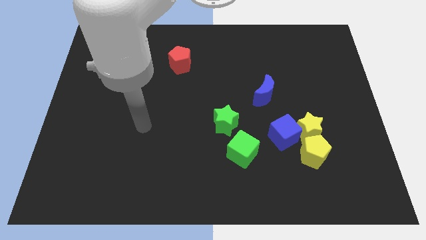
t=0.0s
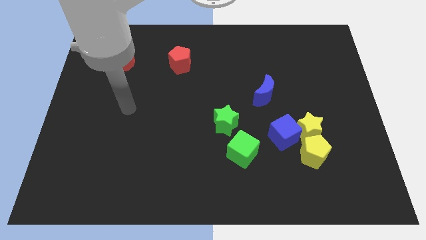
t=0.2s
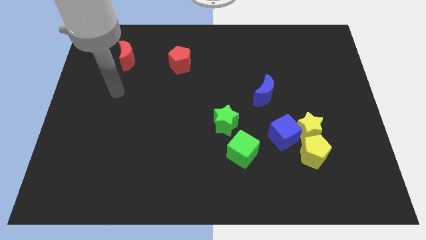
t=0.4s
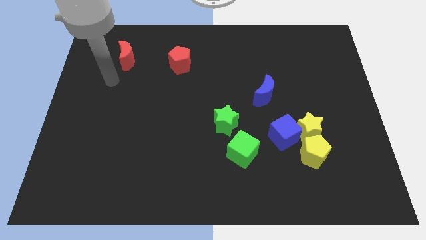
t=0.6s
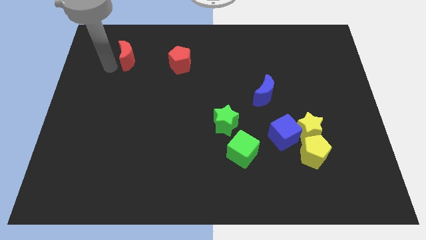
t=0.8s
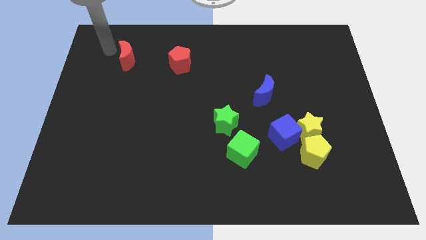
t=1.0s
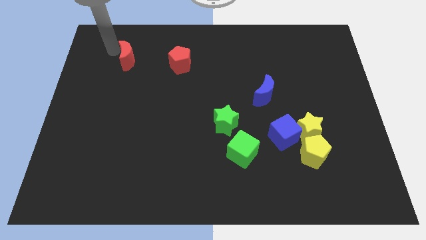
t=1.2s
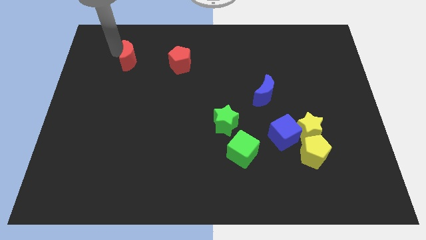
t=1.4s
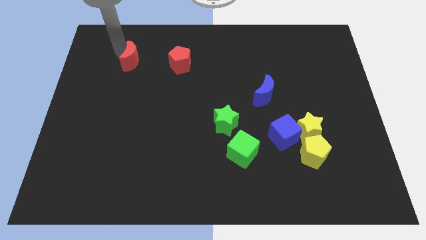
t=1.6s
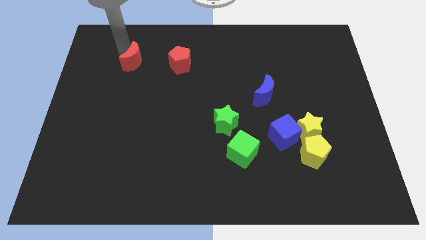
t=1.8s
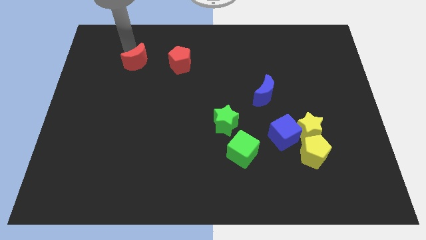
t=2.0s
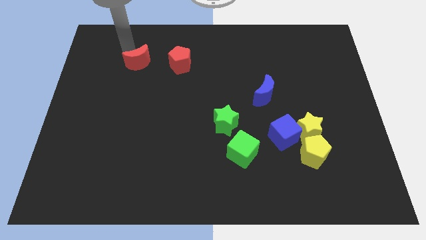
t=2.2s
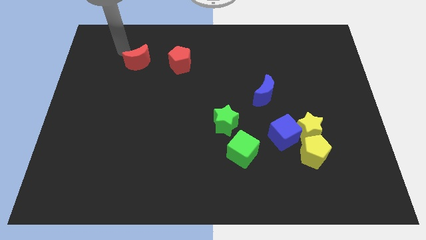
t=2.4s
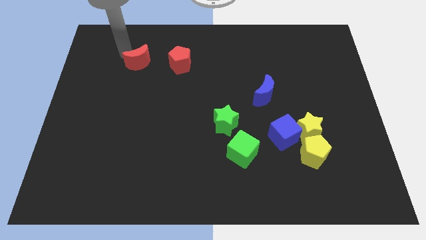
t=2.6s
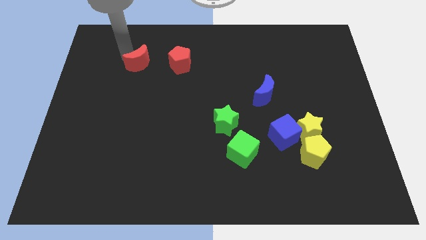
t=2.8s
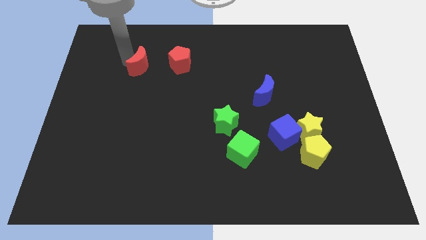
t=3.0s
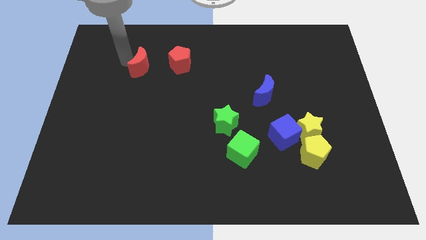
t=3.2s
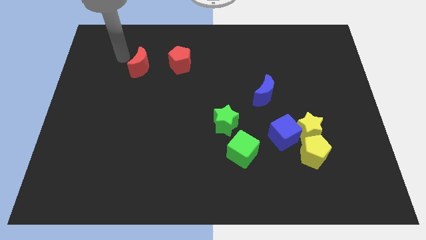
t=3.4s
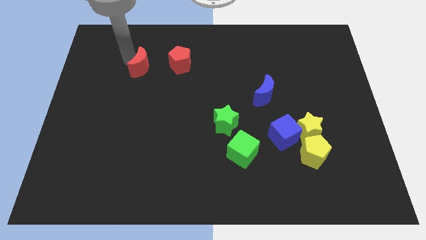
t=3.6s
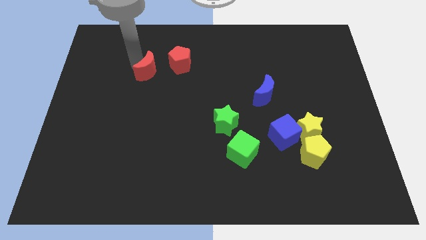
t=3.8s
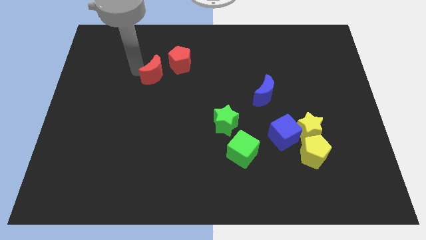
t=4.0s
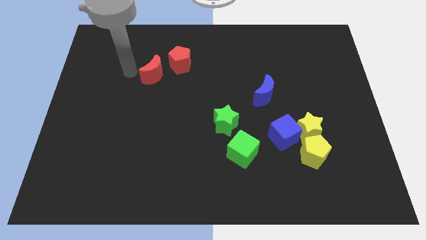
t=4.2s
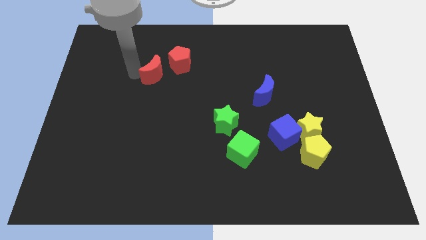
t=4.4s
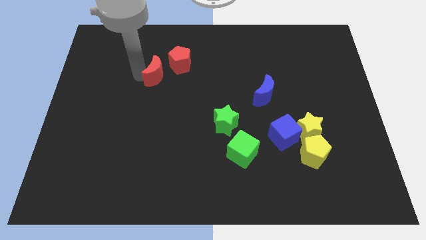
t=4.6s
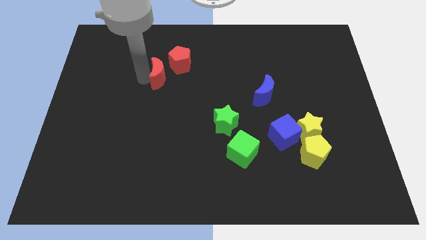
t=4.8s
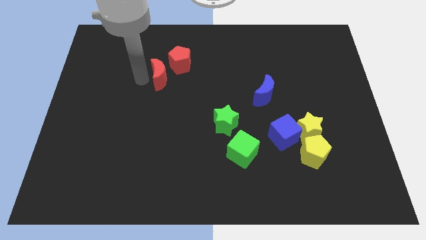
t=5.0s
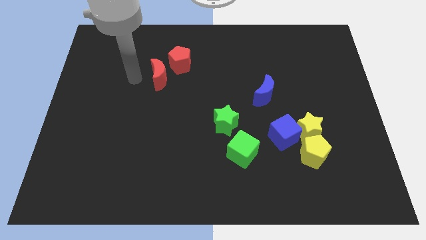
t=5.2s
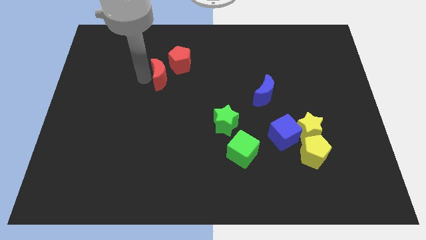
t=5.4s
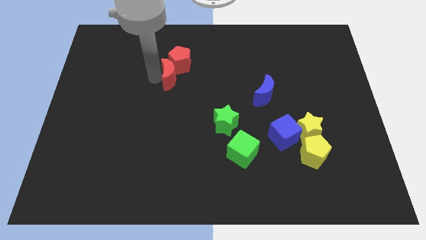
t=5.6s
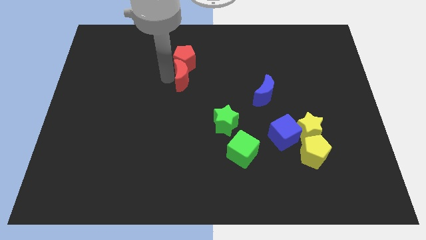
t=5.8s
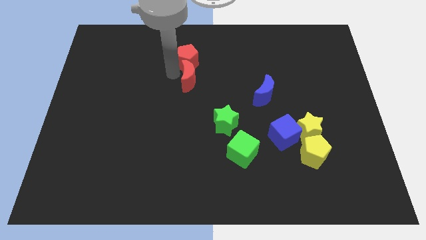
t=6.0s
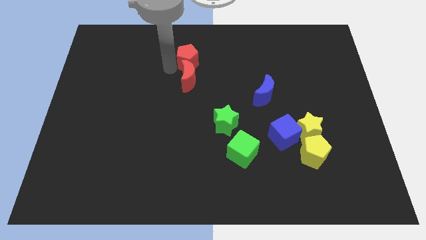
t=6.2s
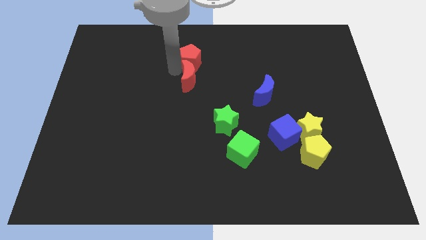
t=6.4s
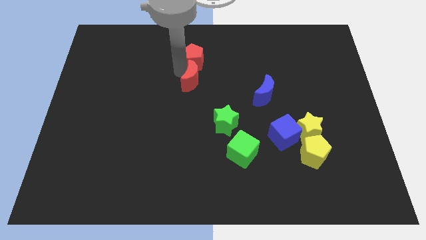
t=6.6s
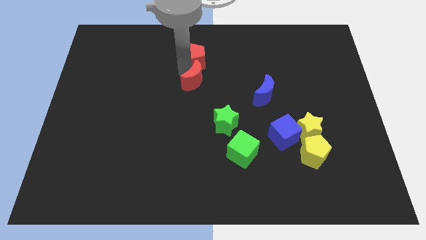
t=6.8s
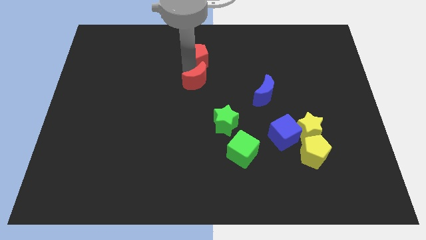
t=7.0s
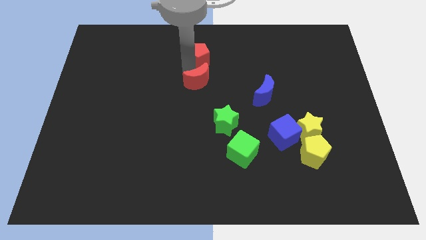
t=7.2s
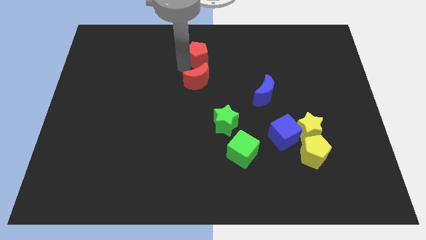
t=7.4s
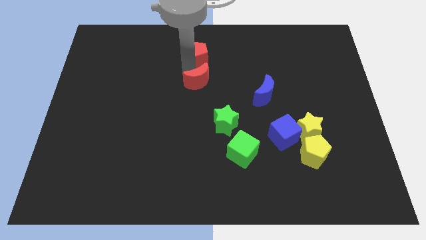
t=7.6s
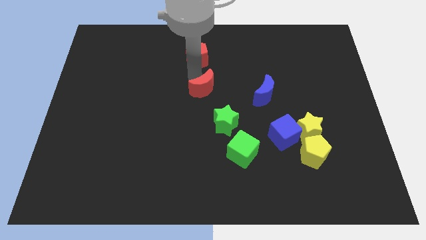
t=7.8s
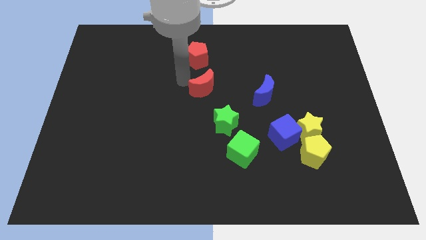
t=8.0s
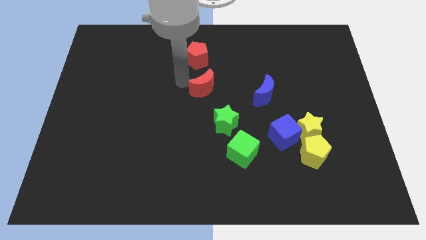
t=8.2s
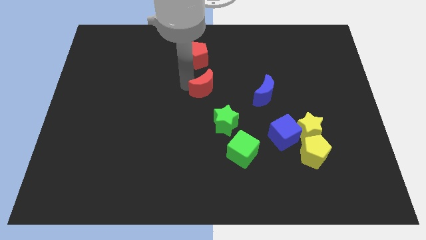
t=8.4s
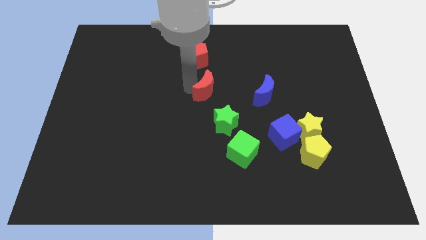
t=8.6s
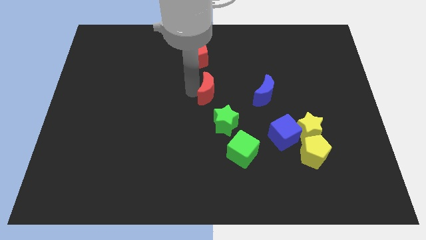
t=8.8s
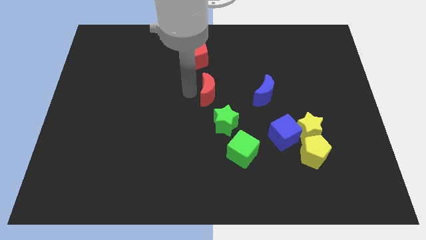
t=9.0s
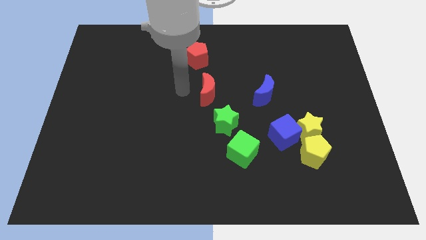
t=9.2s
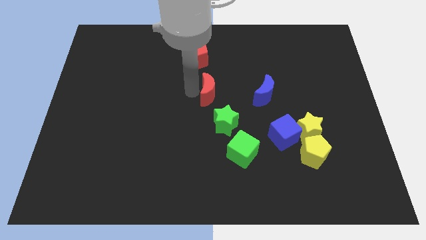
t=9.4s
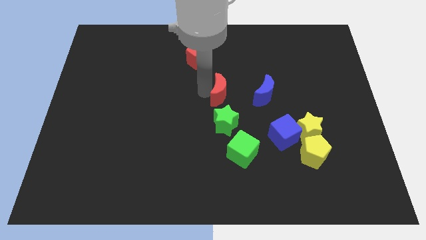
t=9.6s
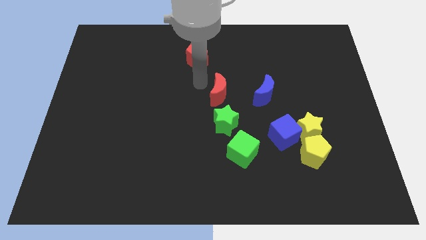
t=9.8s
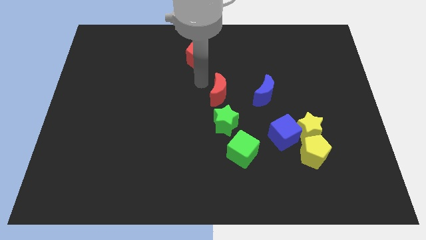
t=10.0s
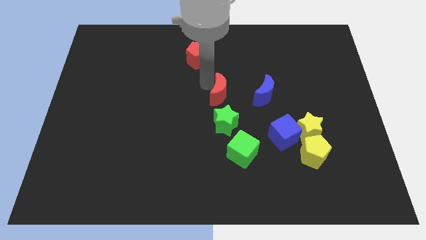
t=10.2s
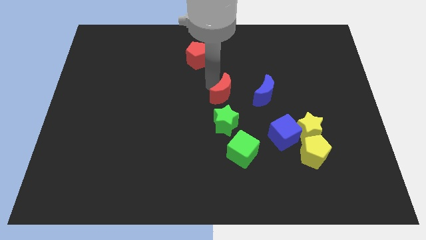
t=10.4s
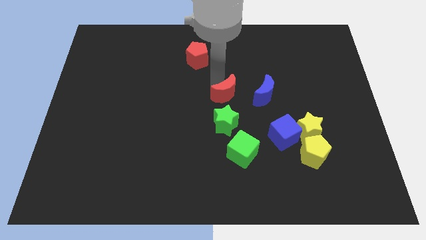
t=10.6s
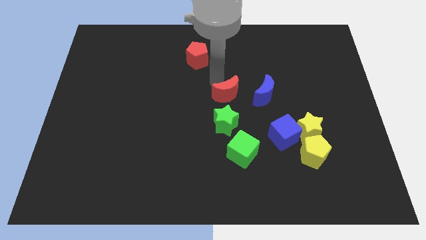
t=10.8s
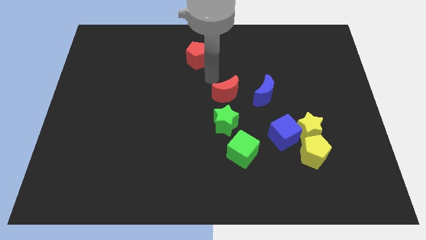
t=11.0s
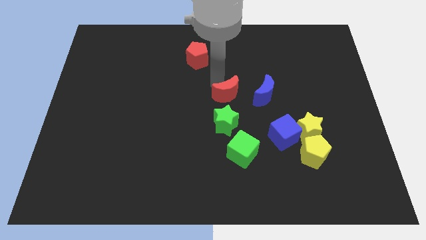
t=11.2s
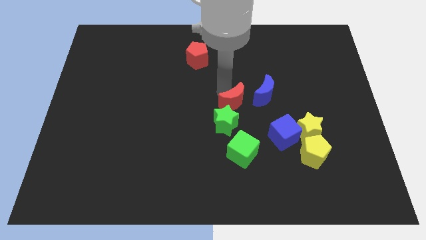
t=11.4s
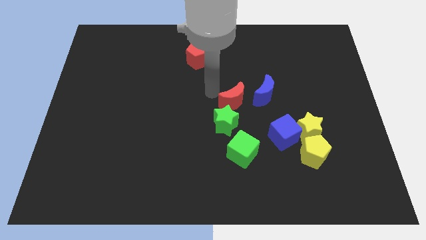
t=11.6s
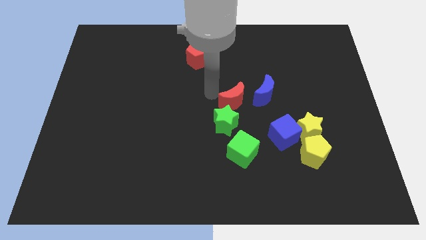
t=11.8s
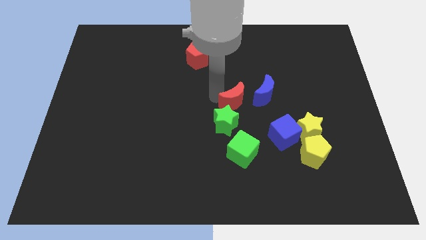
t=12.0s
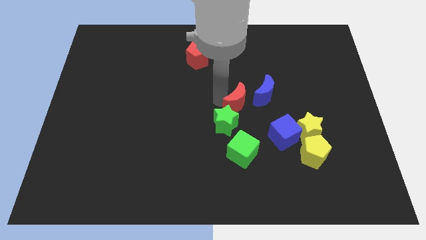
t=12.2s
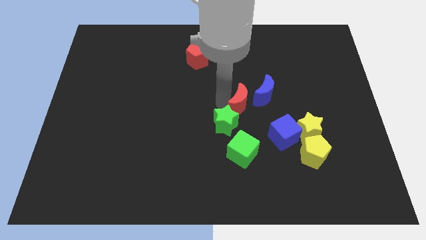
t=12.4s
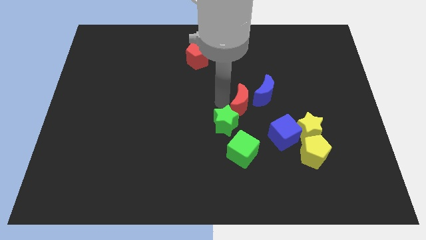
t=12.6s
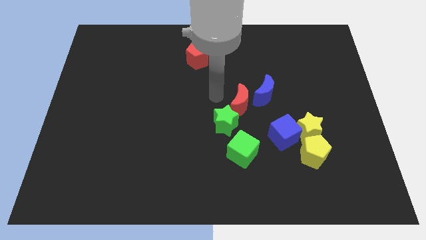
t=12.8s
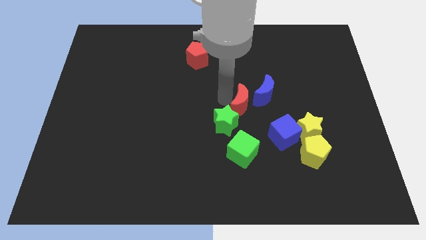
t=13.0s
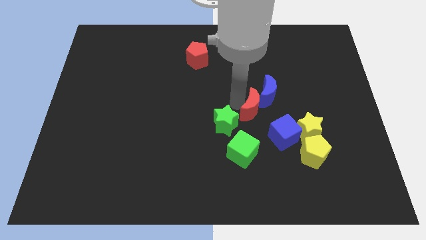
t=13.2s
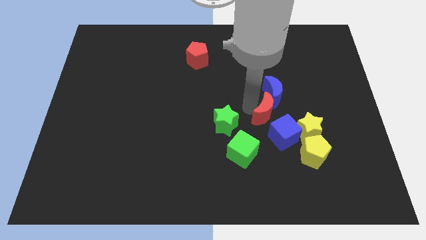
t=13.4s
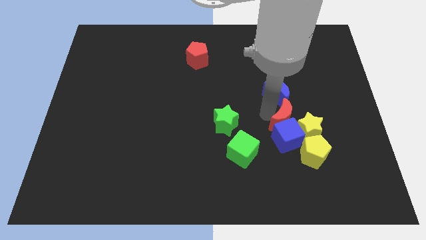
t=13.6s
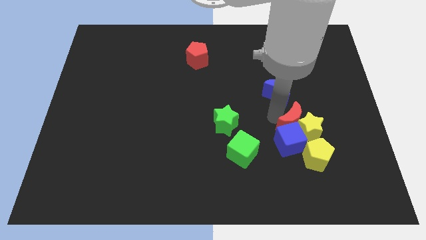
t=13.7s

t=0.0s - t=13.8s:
push the red moon next to the yellow star
